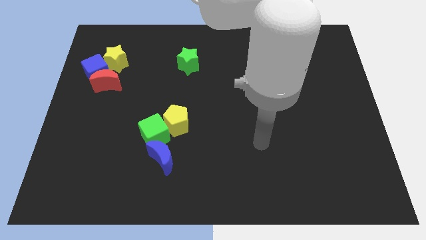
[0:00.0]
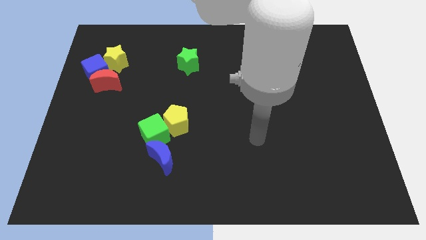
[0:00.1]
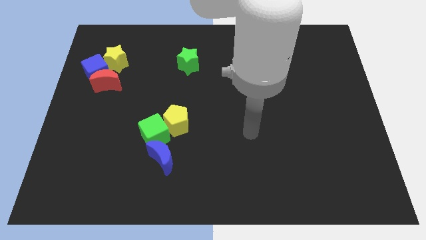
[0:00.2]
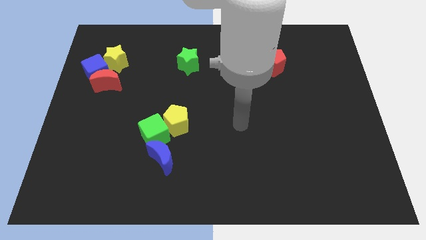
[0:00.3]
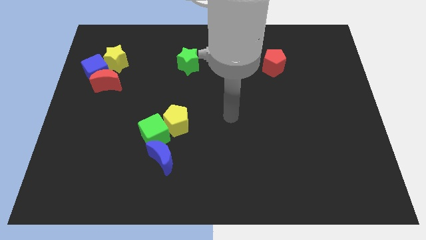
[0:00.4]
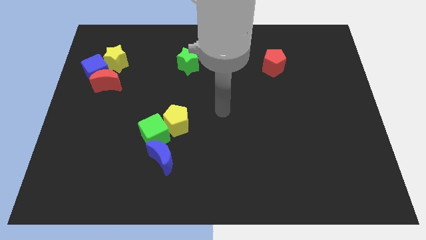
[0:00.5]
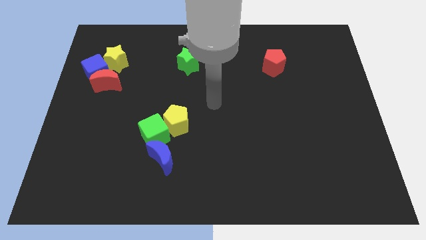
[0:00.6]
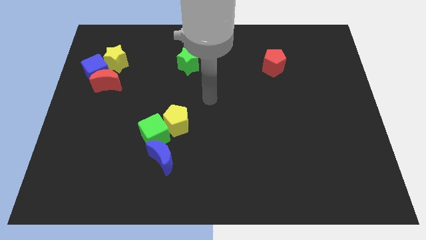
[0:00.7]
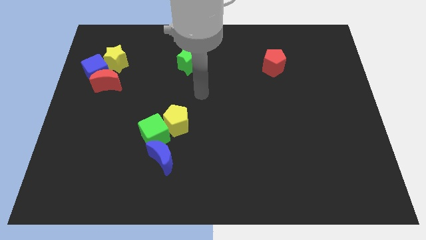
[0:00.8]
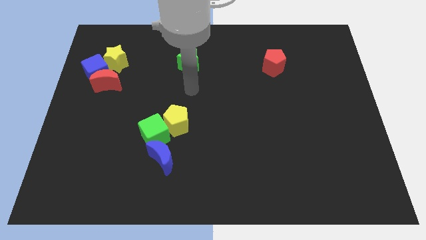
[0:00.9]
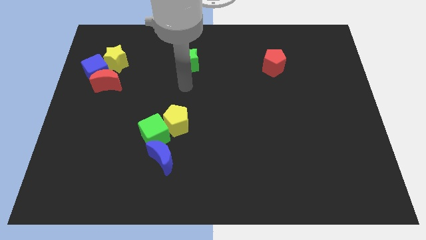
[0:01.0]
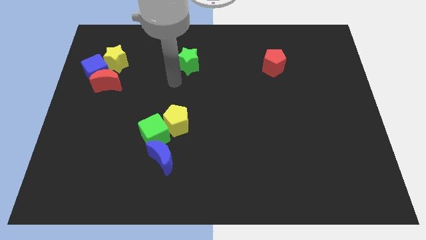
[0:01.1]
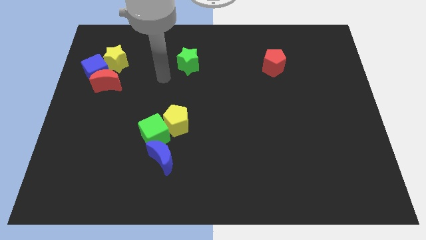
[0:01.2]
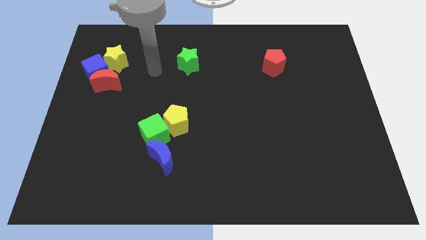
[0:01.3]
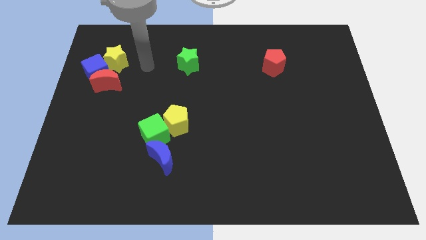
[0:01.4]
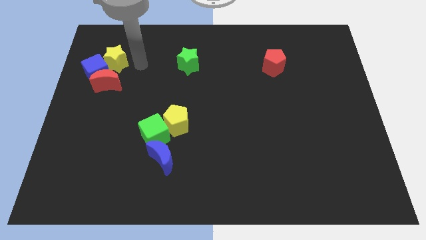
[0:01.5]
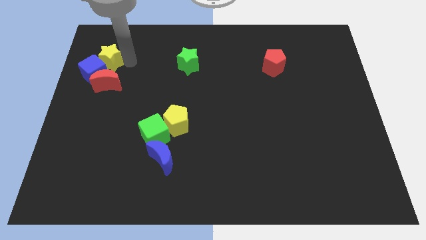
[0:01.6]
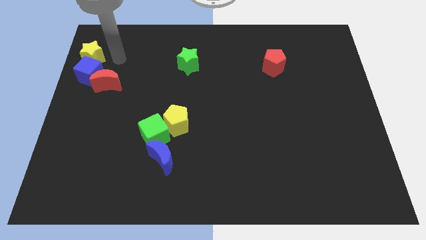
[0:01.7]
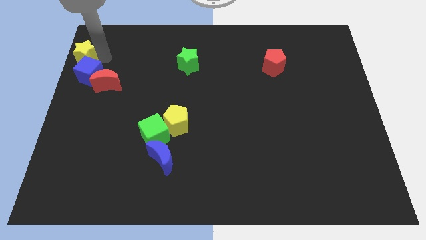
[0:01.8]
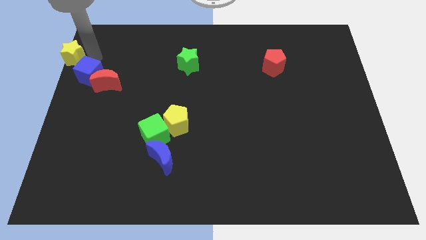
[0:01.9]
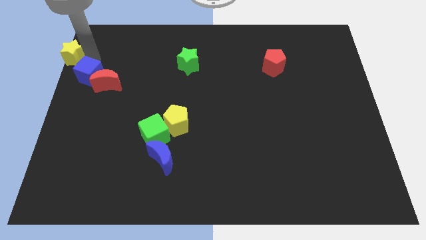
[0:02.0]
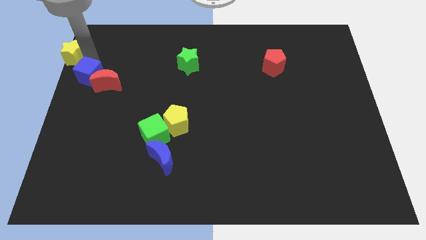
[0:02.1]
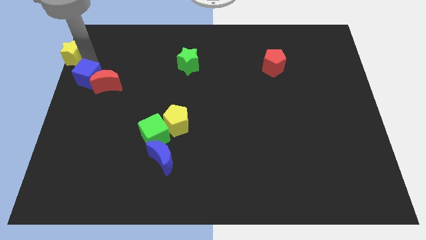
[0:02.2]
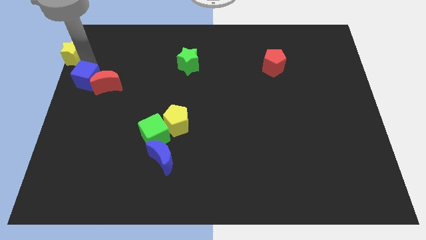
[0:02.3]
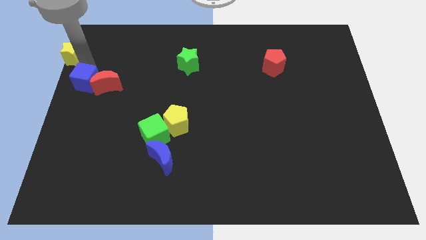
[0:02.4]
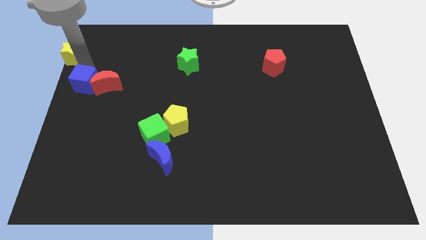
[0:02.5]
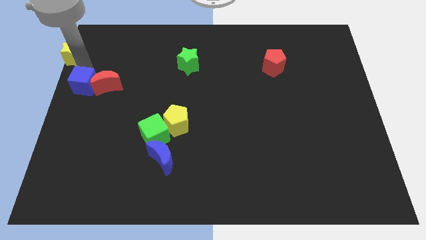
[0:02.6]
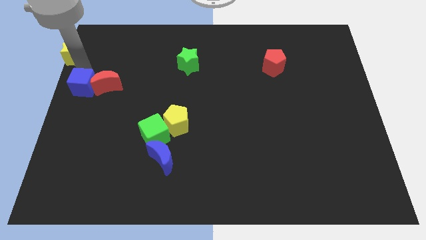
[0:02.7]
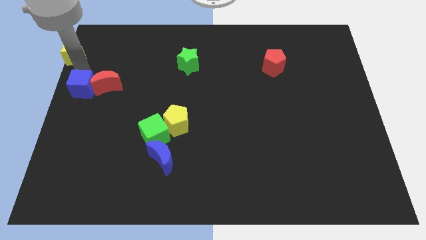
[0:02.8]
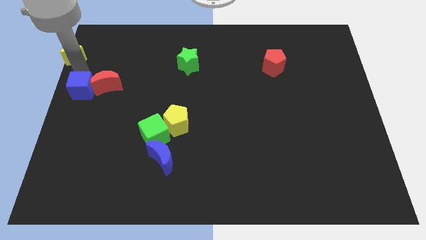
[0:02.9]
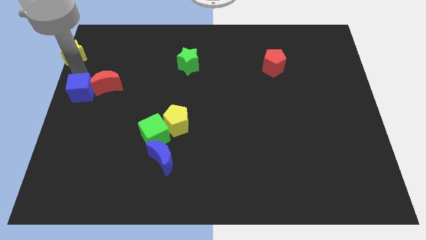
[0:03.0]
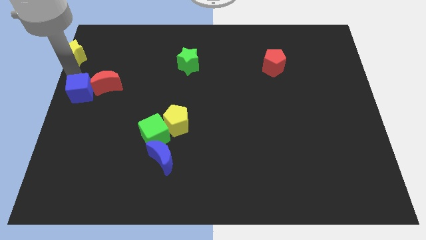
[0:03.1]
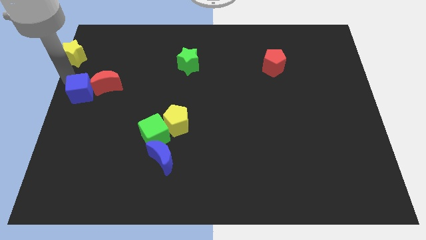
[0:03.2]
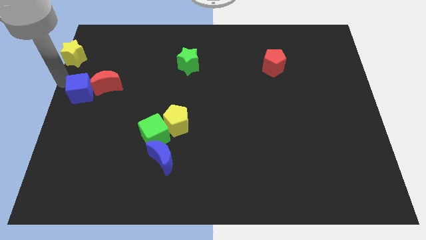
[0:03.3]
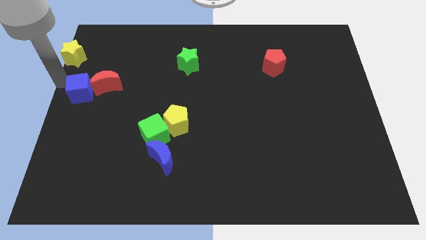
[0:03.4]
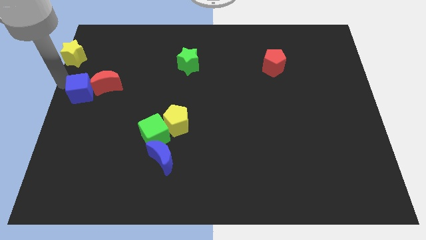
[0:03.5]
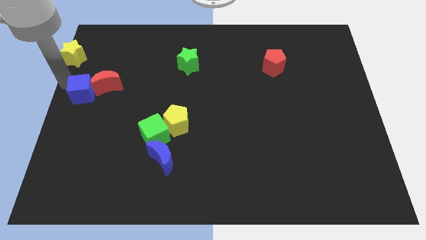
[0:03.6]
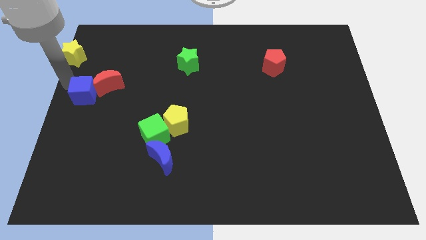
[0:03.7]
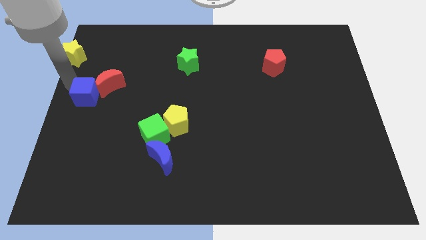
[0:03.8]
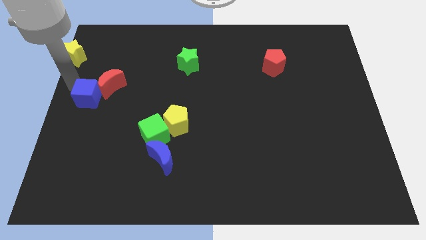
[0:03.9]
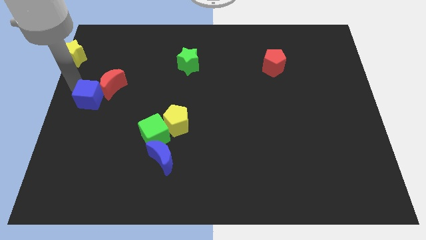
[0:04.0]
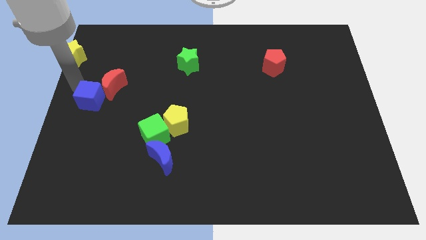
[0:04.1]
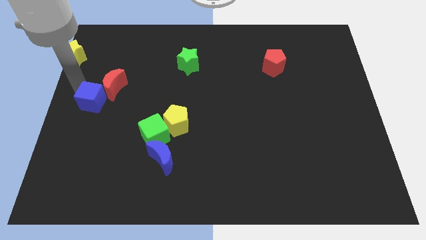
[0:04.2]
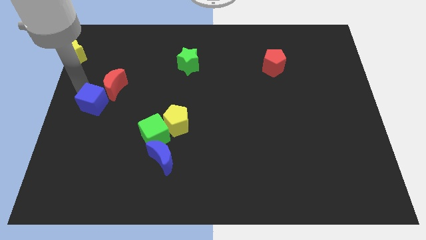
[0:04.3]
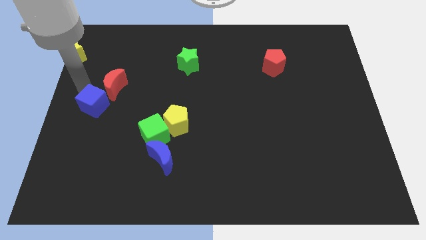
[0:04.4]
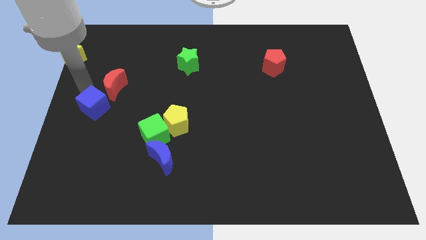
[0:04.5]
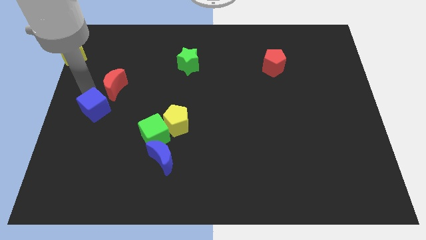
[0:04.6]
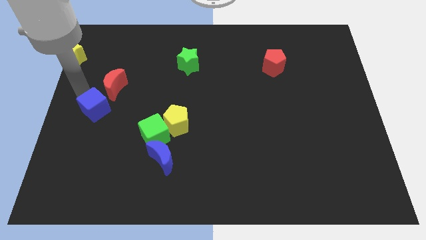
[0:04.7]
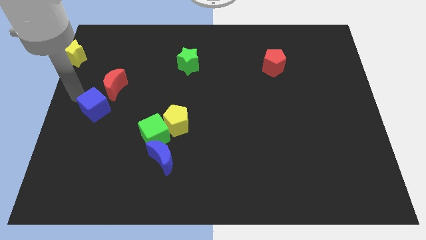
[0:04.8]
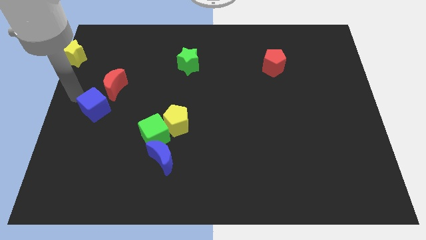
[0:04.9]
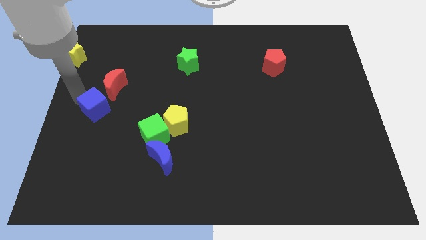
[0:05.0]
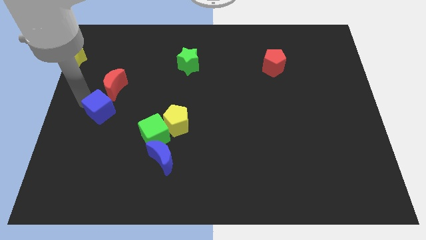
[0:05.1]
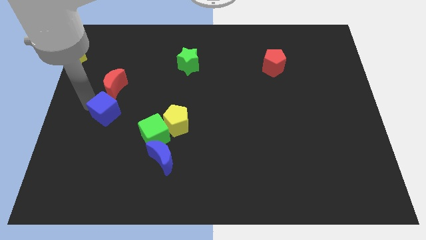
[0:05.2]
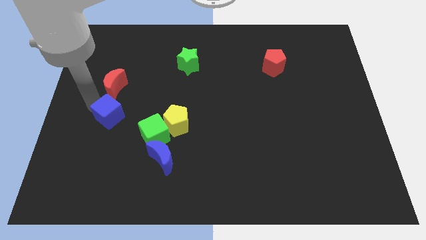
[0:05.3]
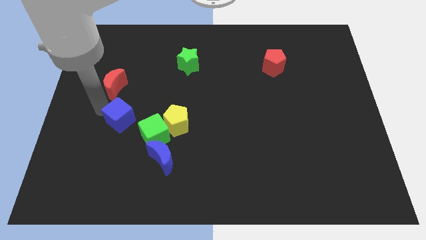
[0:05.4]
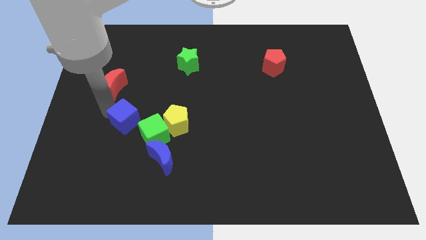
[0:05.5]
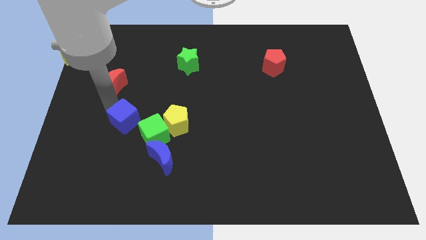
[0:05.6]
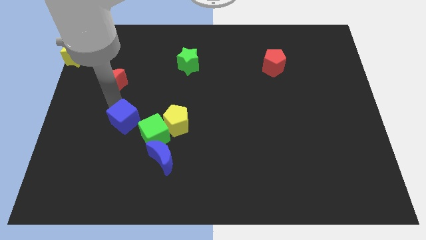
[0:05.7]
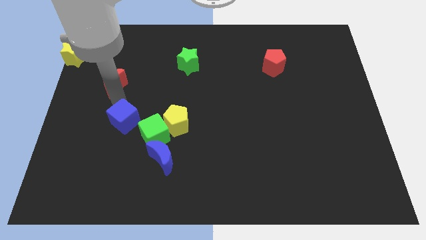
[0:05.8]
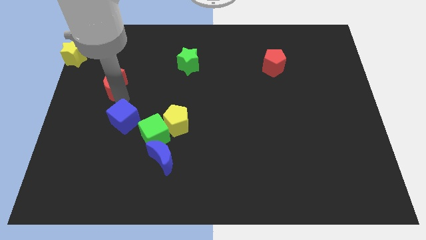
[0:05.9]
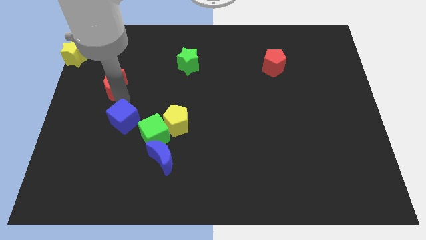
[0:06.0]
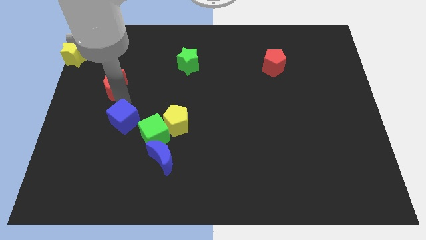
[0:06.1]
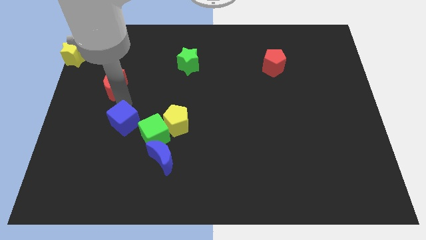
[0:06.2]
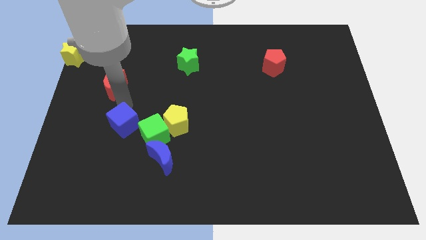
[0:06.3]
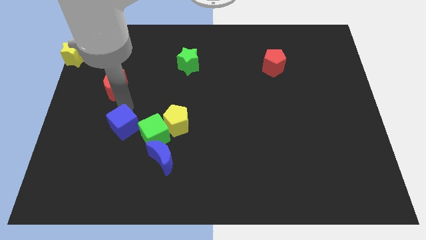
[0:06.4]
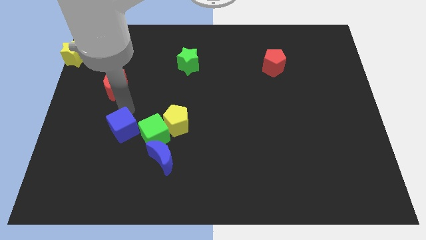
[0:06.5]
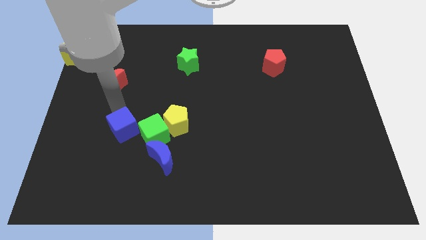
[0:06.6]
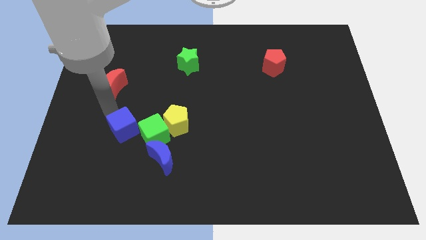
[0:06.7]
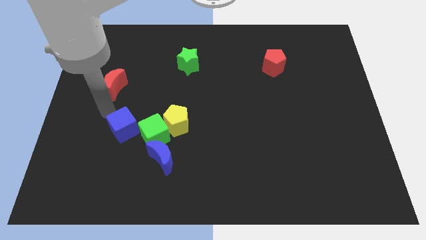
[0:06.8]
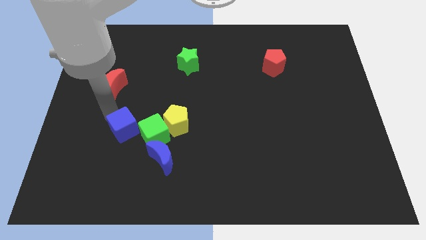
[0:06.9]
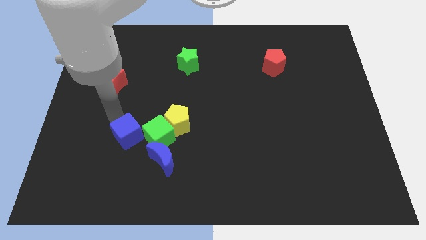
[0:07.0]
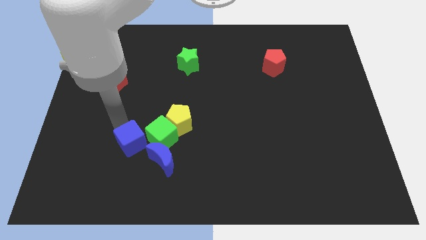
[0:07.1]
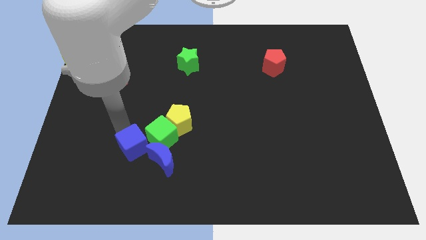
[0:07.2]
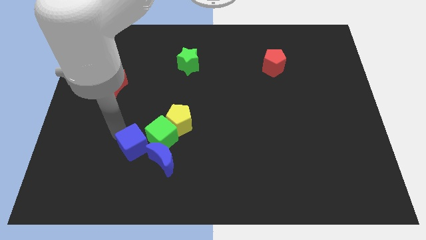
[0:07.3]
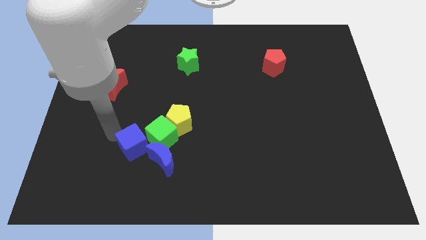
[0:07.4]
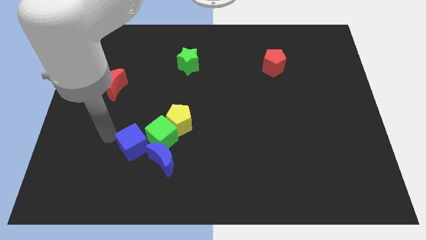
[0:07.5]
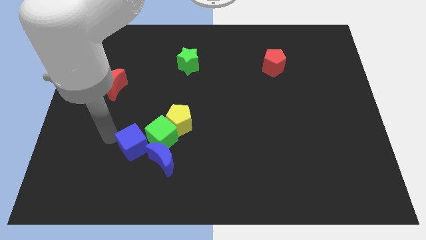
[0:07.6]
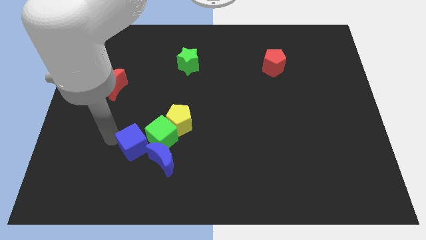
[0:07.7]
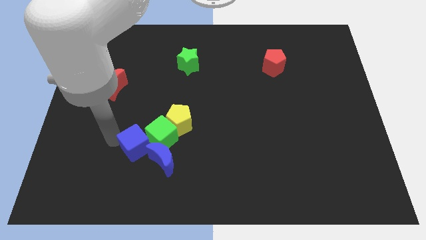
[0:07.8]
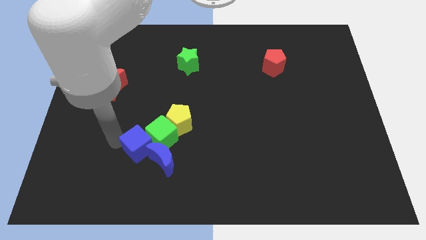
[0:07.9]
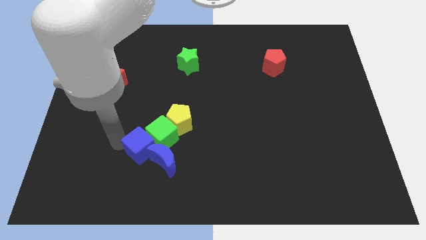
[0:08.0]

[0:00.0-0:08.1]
put the blue cube close to the blue moon
